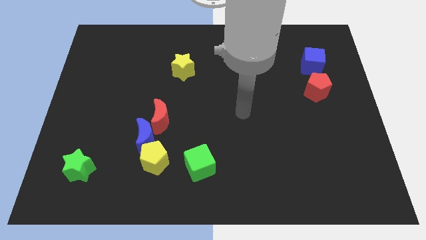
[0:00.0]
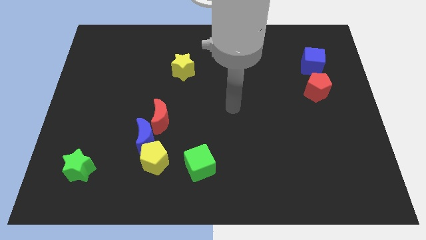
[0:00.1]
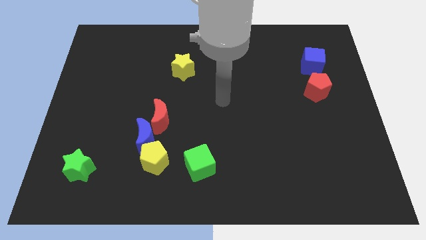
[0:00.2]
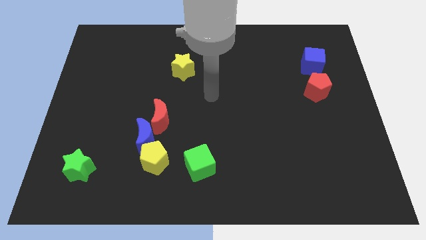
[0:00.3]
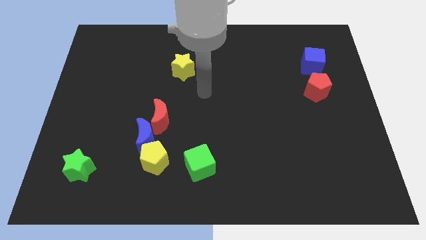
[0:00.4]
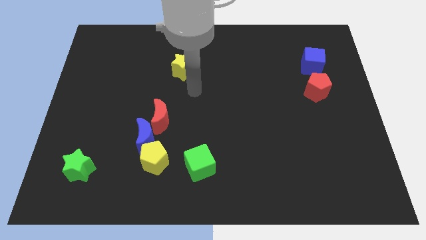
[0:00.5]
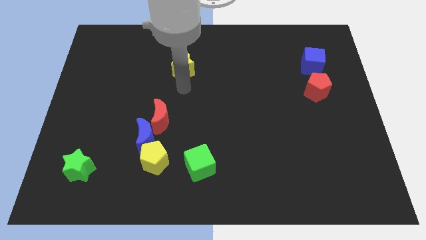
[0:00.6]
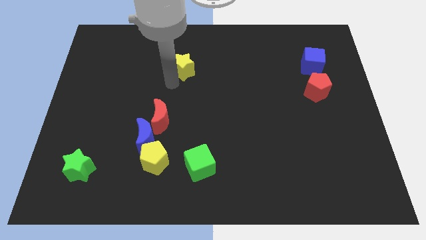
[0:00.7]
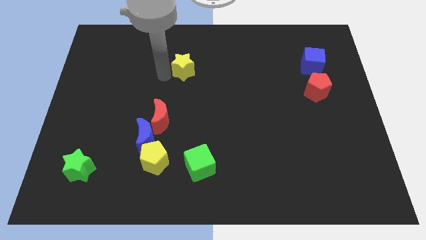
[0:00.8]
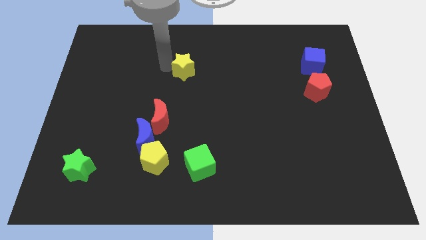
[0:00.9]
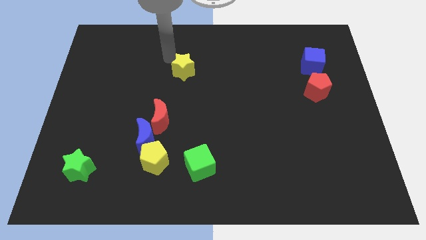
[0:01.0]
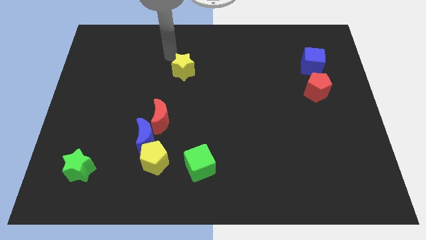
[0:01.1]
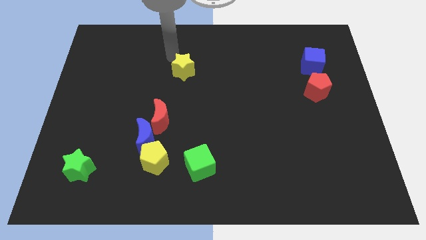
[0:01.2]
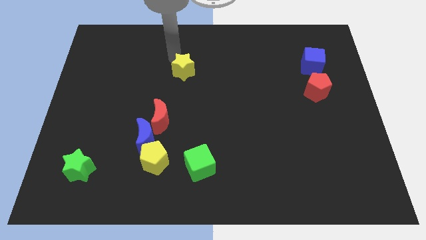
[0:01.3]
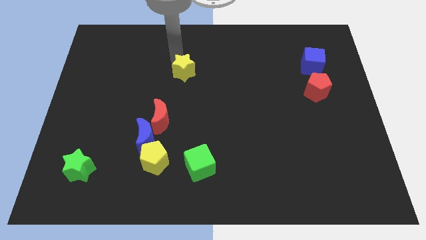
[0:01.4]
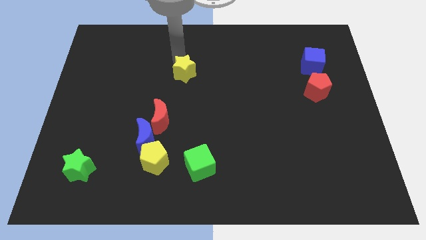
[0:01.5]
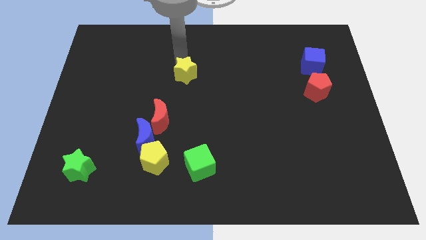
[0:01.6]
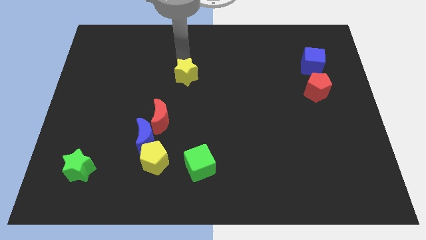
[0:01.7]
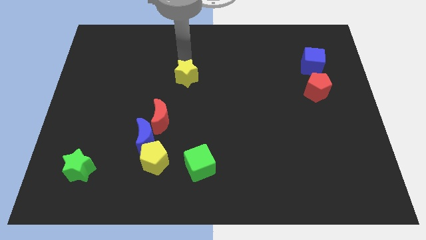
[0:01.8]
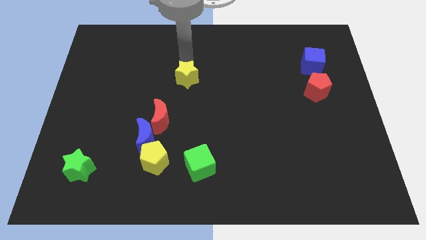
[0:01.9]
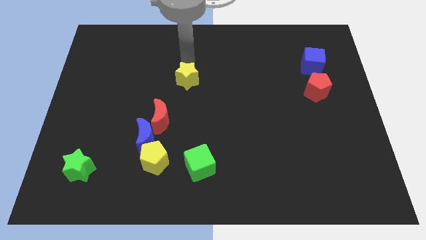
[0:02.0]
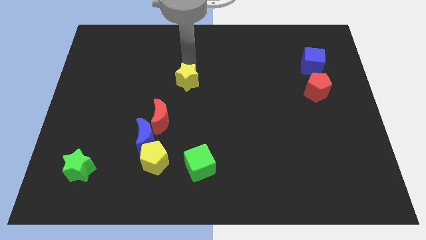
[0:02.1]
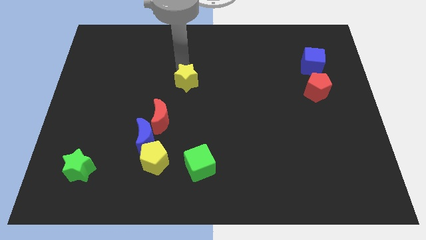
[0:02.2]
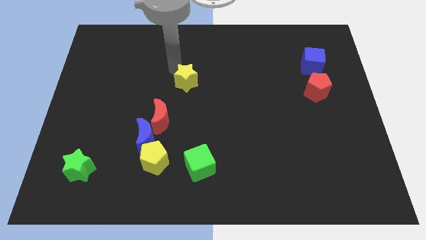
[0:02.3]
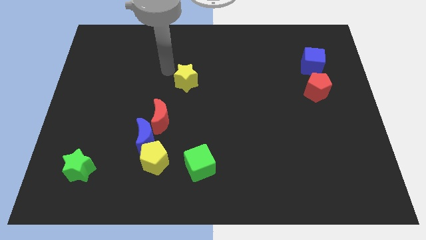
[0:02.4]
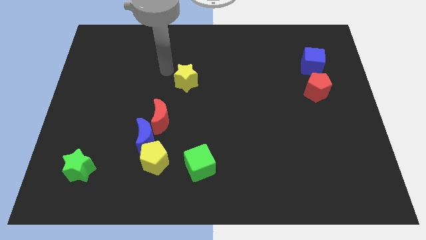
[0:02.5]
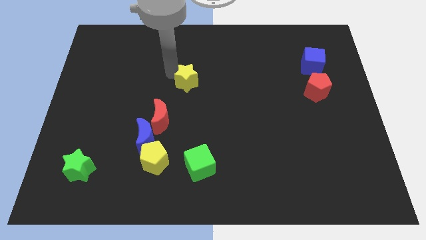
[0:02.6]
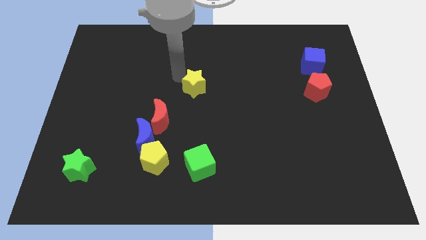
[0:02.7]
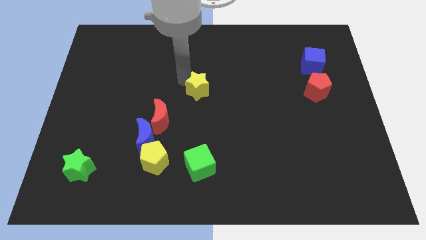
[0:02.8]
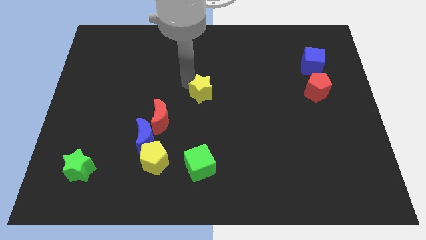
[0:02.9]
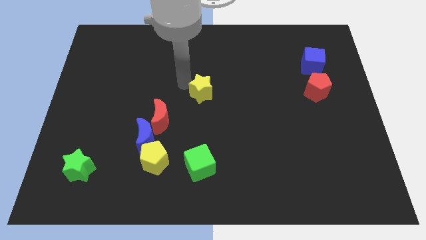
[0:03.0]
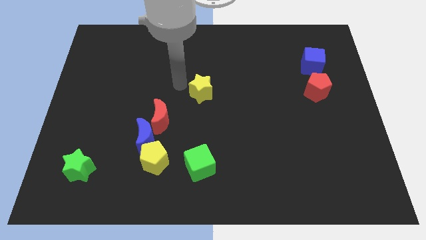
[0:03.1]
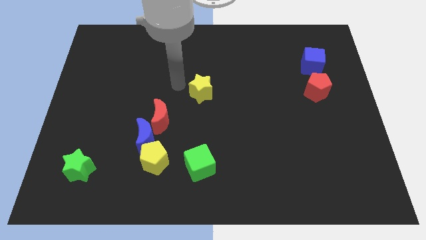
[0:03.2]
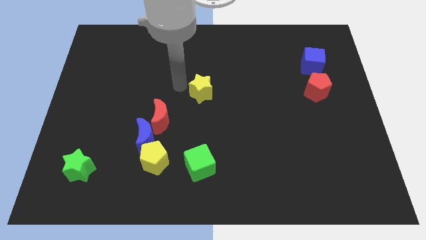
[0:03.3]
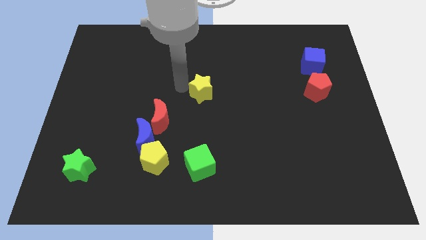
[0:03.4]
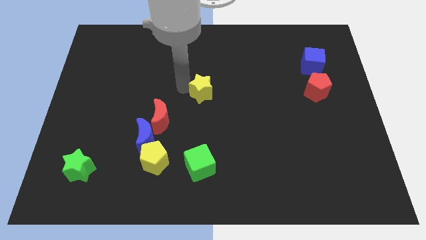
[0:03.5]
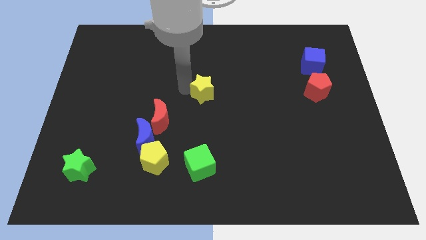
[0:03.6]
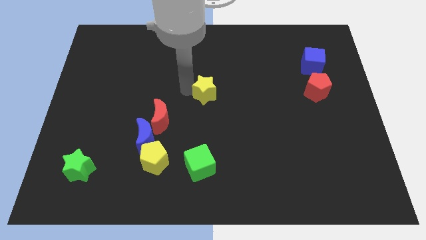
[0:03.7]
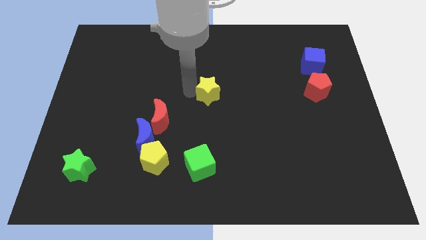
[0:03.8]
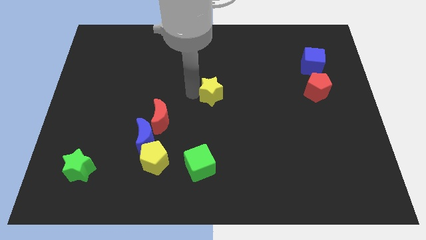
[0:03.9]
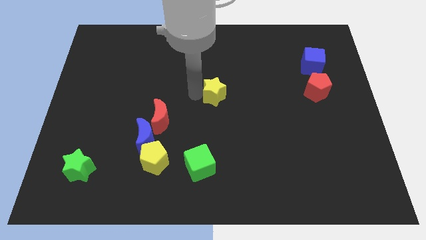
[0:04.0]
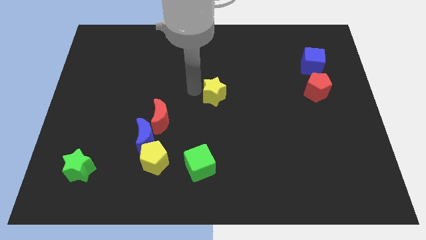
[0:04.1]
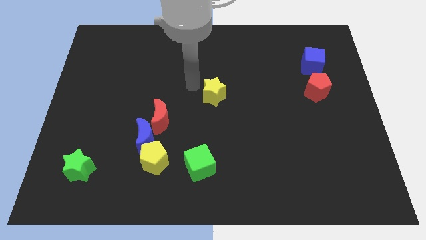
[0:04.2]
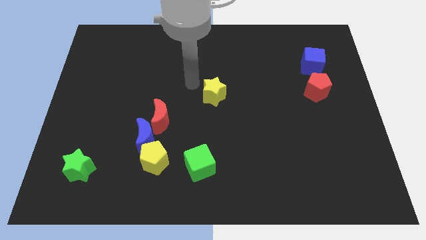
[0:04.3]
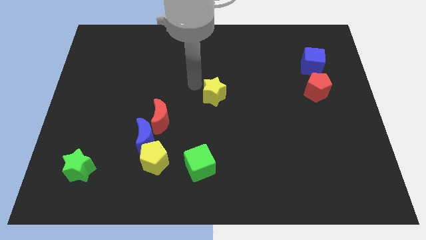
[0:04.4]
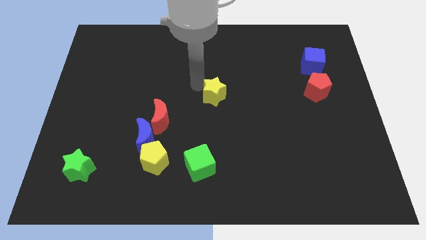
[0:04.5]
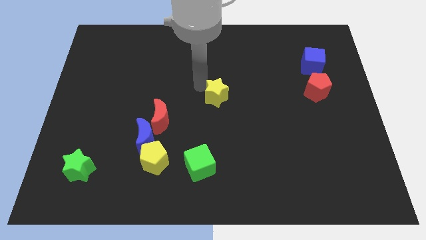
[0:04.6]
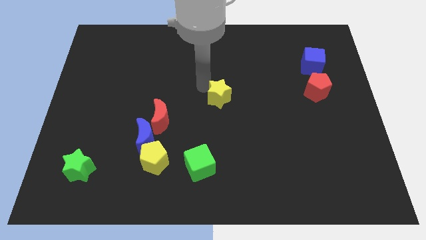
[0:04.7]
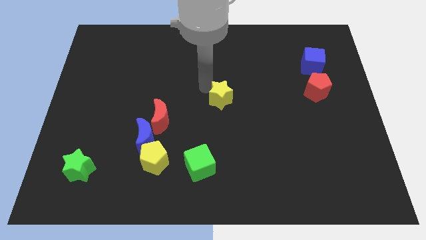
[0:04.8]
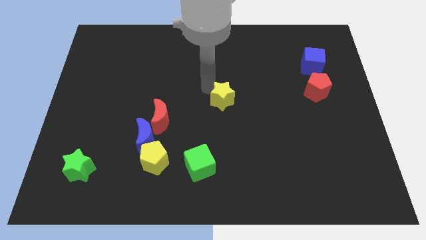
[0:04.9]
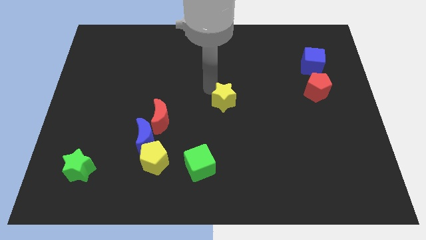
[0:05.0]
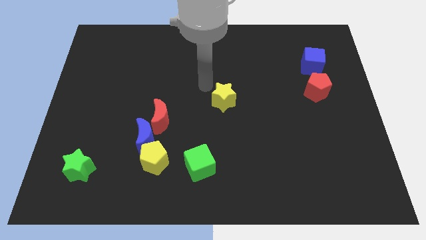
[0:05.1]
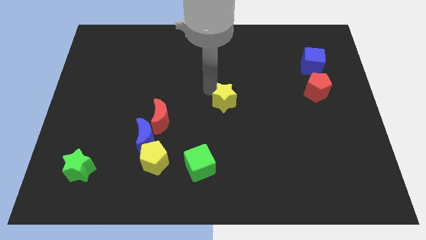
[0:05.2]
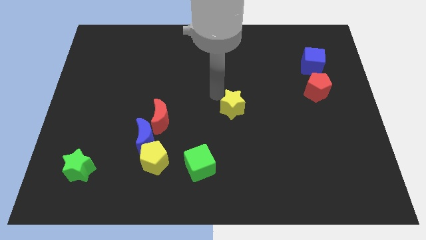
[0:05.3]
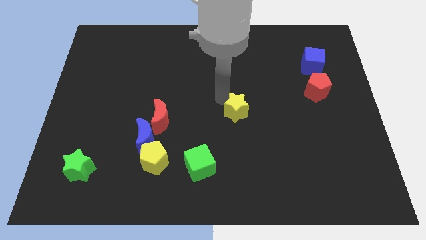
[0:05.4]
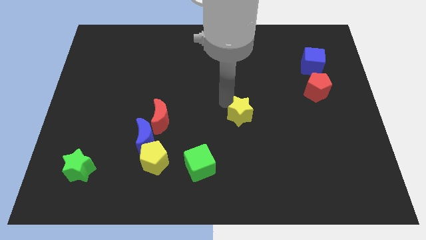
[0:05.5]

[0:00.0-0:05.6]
move the yellow star down and then right

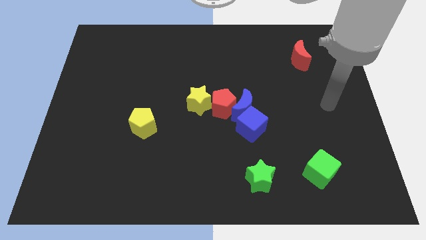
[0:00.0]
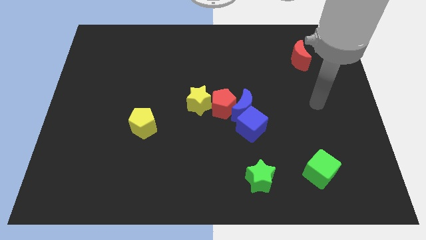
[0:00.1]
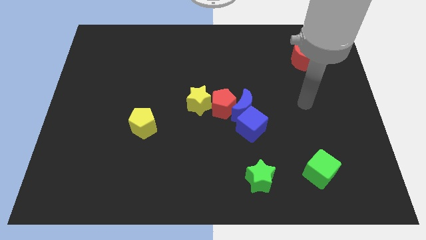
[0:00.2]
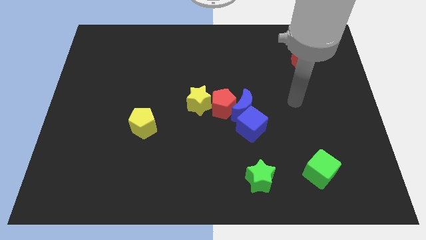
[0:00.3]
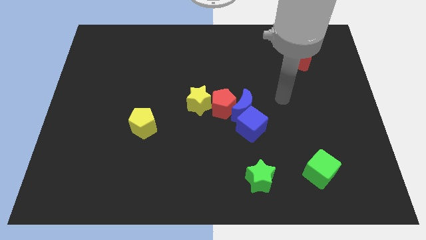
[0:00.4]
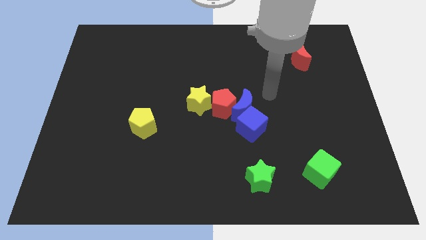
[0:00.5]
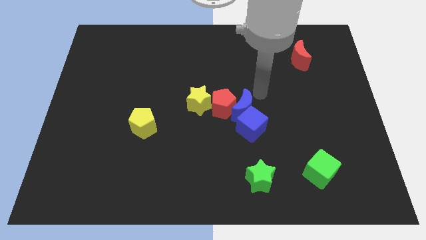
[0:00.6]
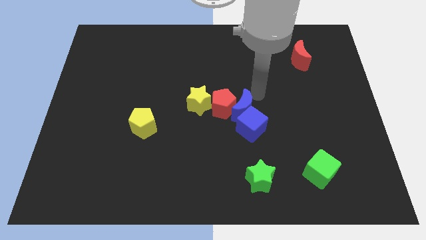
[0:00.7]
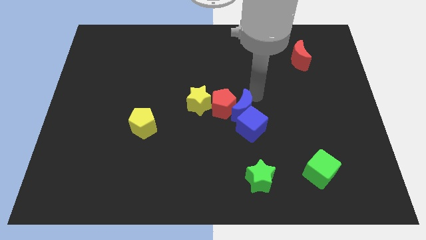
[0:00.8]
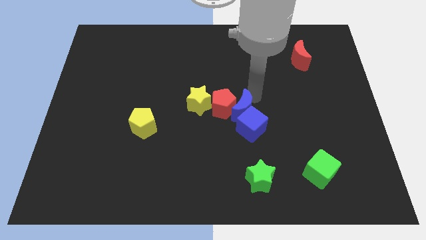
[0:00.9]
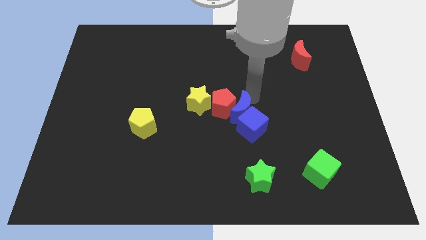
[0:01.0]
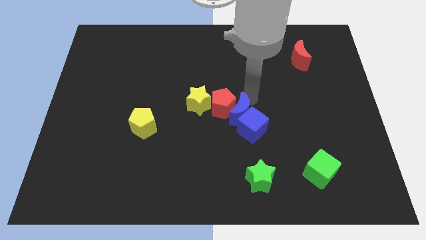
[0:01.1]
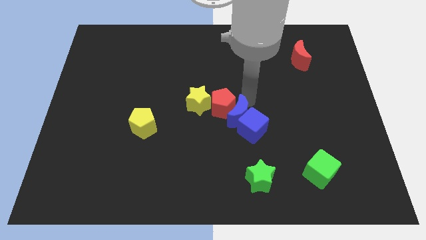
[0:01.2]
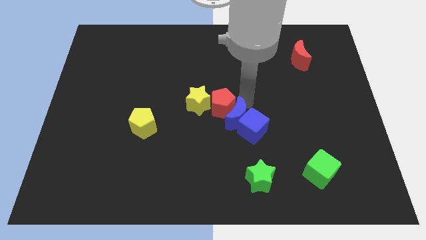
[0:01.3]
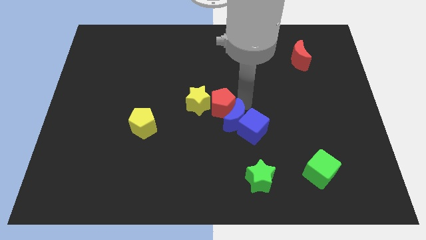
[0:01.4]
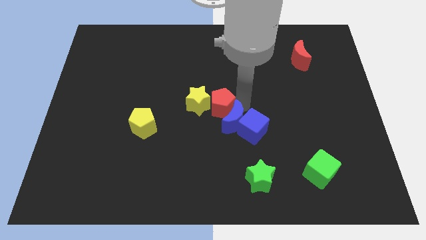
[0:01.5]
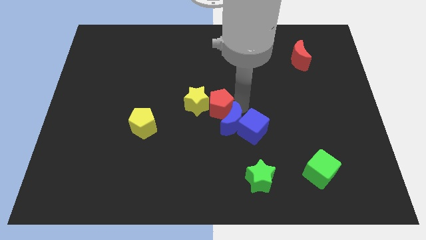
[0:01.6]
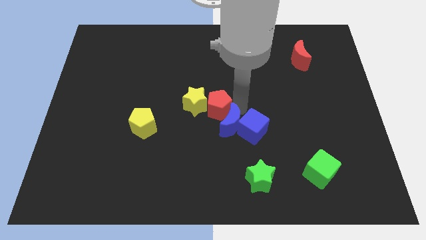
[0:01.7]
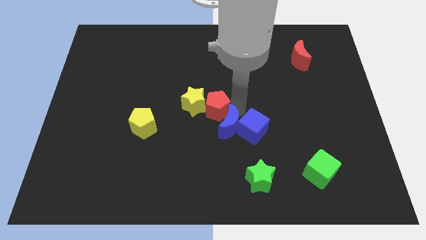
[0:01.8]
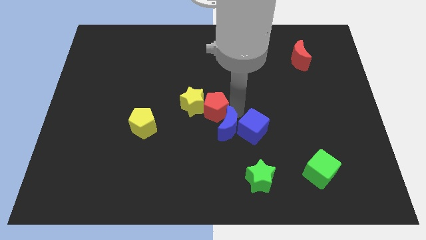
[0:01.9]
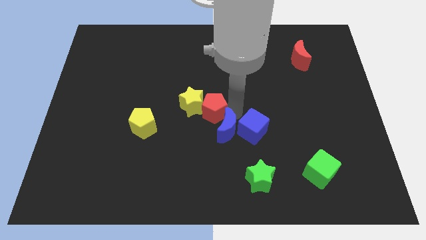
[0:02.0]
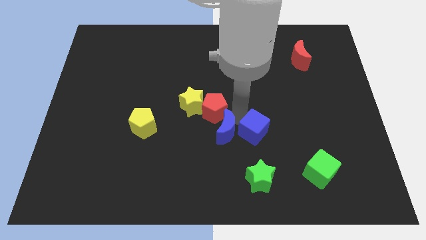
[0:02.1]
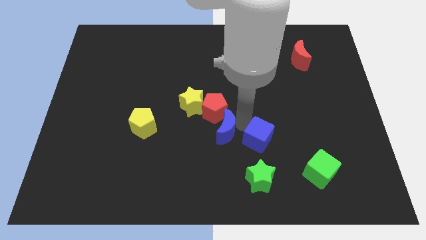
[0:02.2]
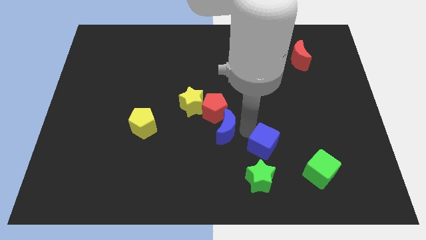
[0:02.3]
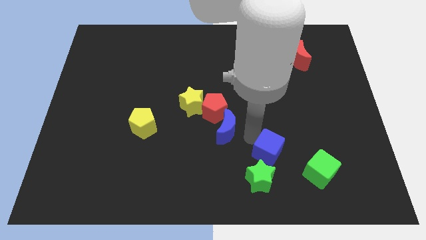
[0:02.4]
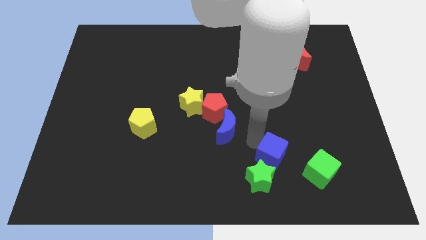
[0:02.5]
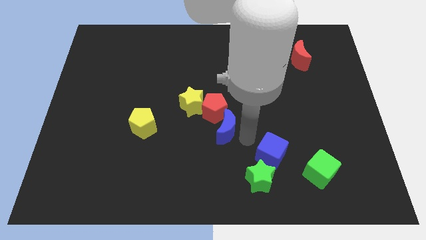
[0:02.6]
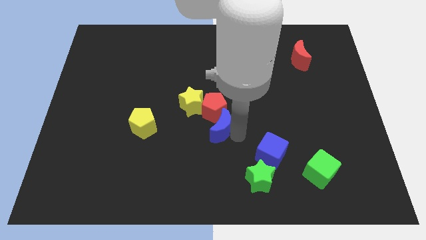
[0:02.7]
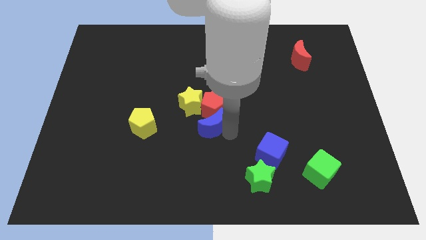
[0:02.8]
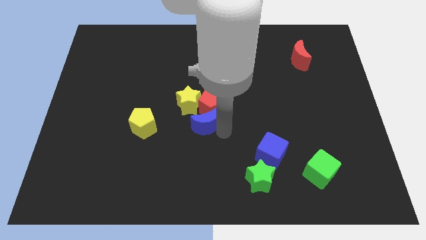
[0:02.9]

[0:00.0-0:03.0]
slightly move the blue moon to the left
